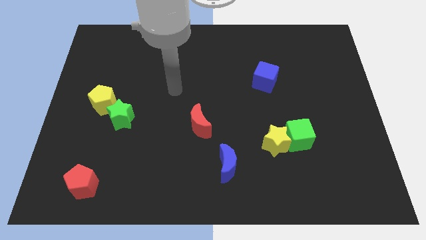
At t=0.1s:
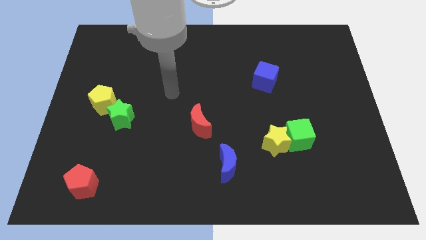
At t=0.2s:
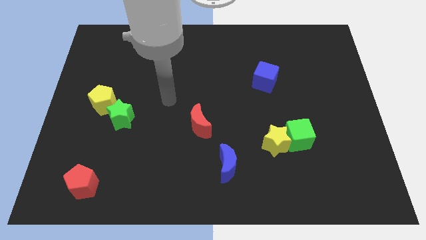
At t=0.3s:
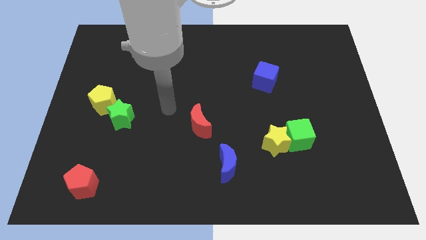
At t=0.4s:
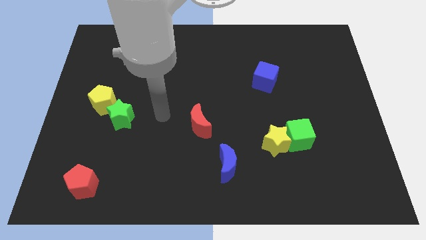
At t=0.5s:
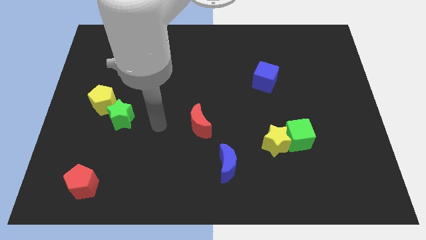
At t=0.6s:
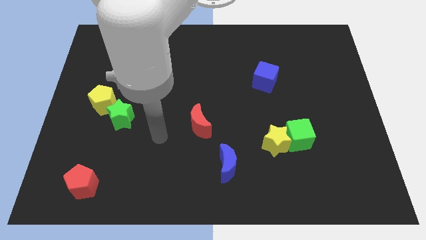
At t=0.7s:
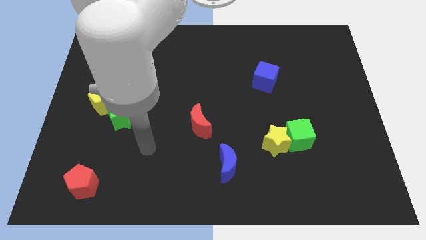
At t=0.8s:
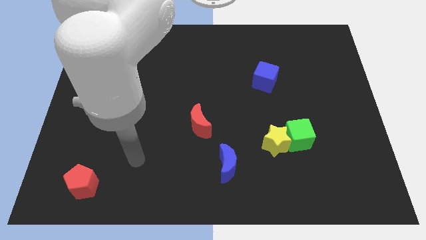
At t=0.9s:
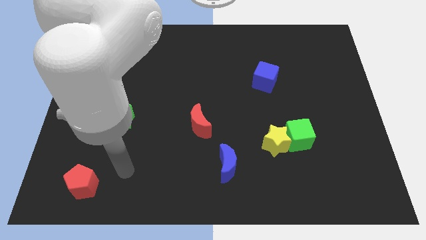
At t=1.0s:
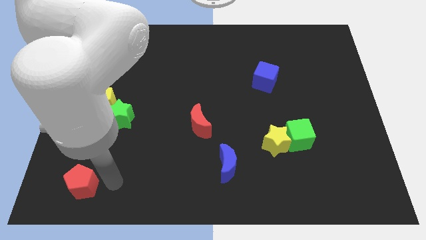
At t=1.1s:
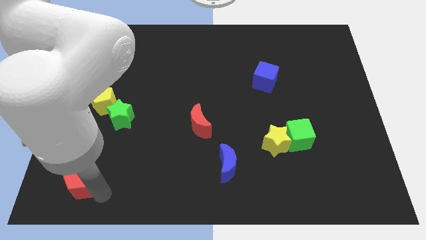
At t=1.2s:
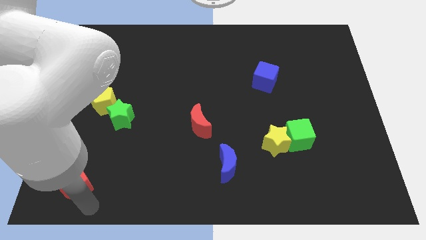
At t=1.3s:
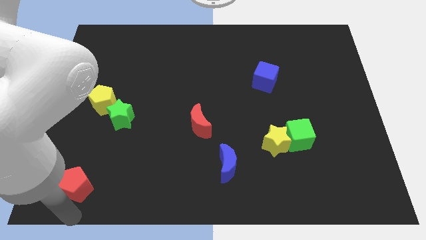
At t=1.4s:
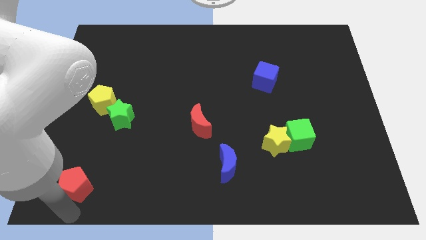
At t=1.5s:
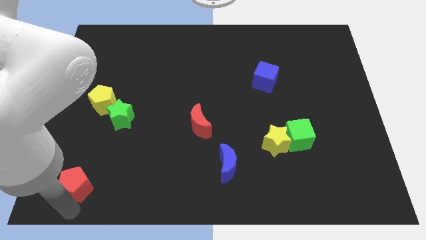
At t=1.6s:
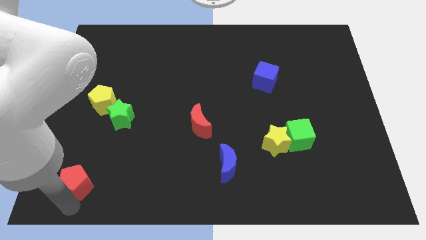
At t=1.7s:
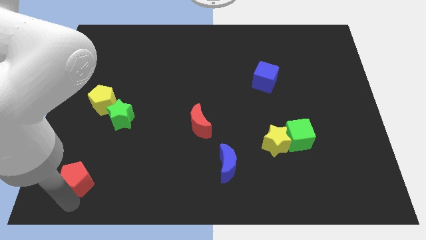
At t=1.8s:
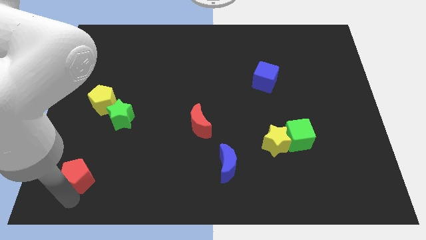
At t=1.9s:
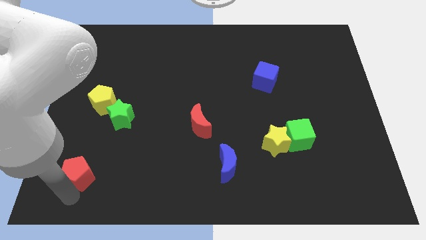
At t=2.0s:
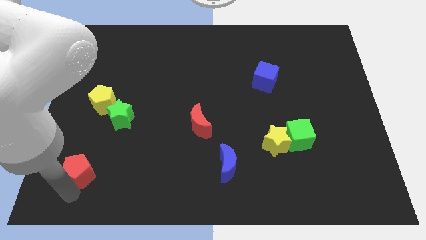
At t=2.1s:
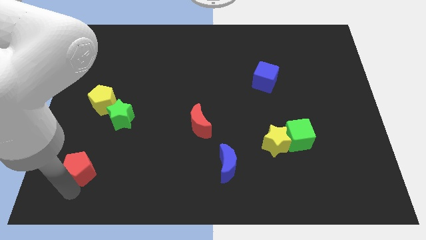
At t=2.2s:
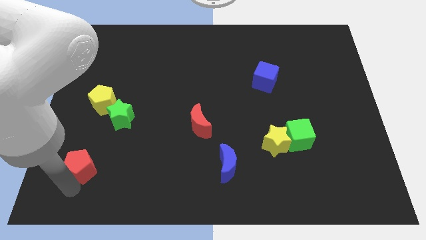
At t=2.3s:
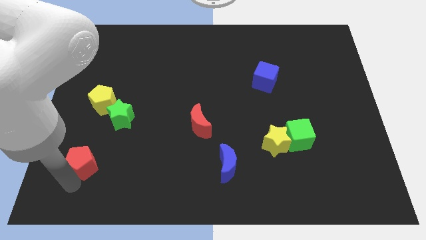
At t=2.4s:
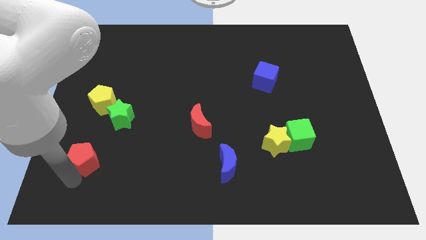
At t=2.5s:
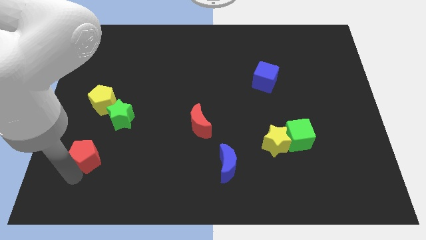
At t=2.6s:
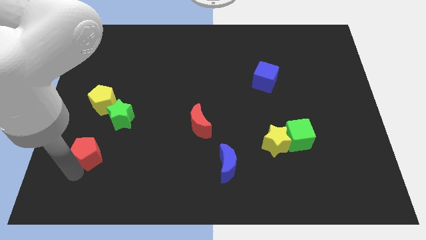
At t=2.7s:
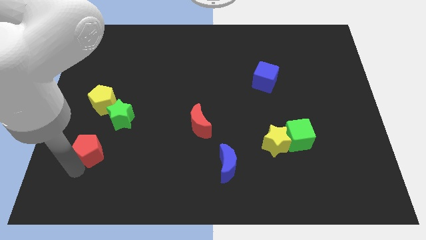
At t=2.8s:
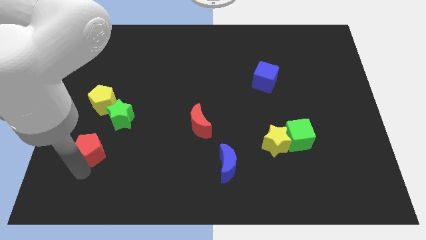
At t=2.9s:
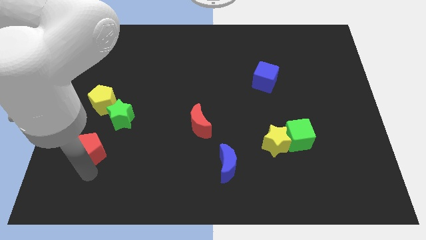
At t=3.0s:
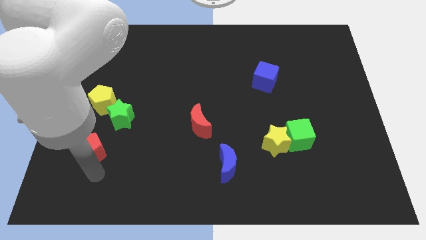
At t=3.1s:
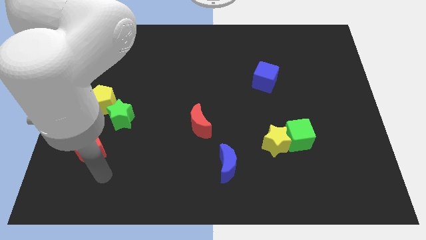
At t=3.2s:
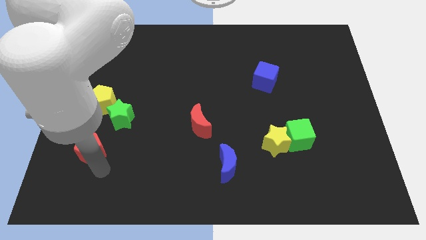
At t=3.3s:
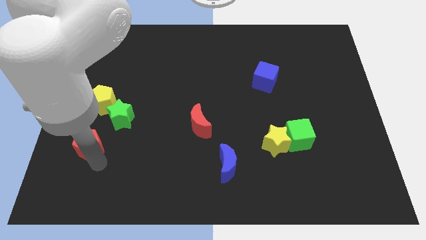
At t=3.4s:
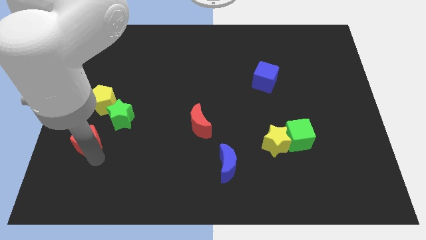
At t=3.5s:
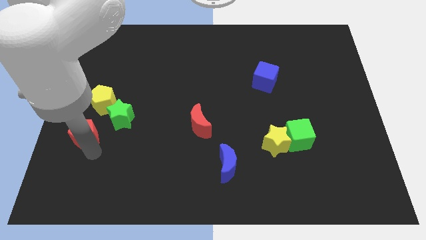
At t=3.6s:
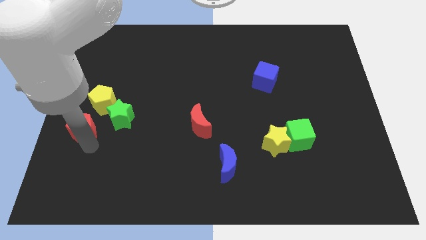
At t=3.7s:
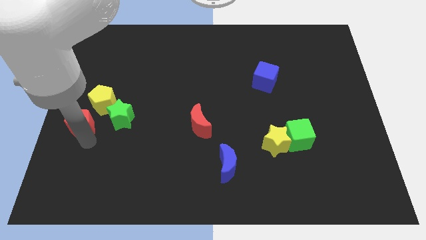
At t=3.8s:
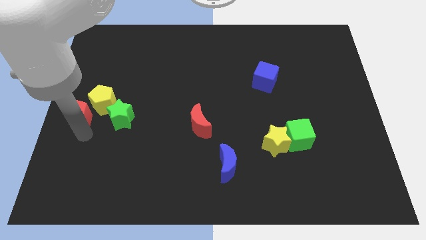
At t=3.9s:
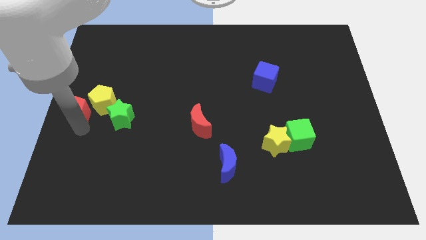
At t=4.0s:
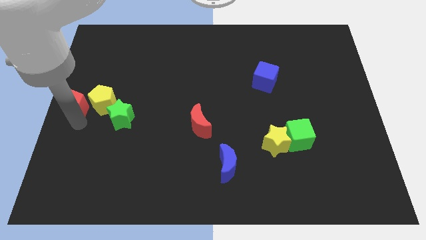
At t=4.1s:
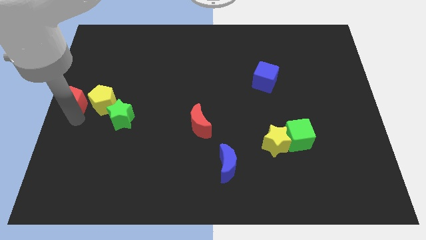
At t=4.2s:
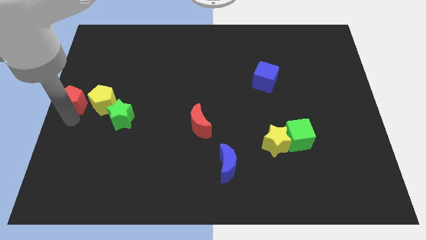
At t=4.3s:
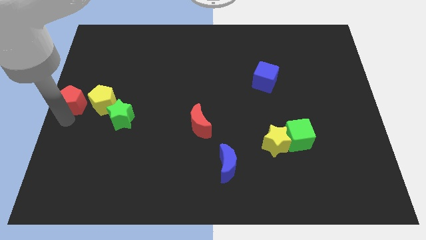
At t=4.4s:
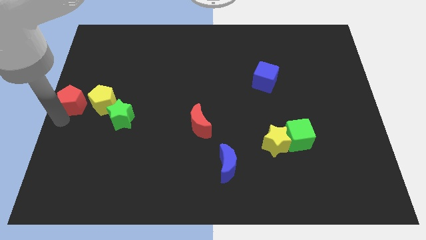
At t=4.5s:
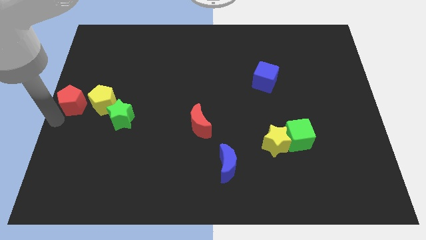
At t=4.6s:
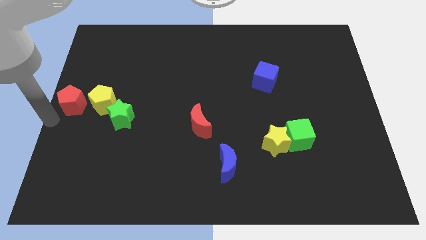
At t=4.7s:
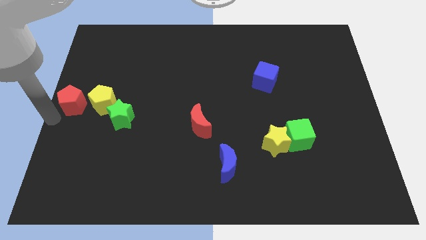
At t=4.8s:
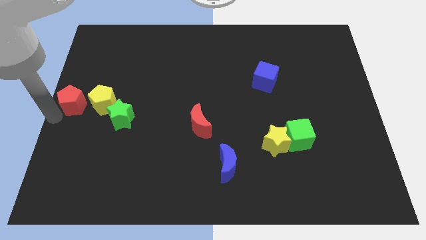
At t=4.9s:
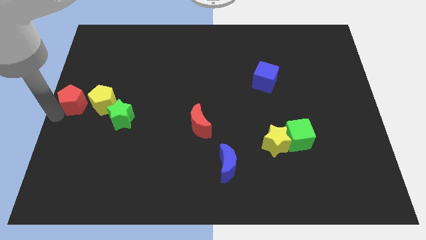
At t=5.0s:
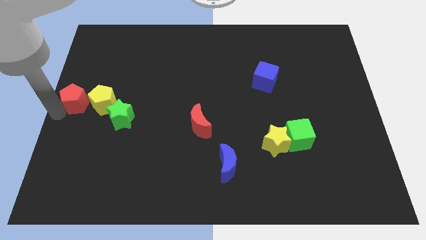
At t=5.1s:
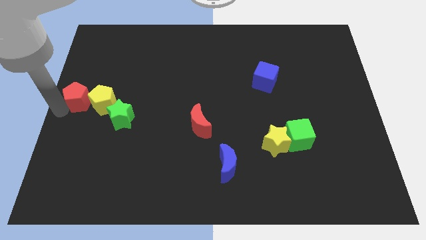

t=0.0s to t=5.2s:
push the red pentagon up

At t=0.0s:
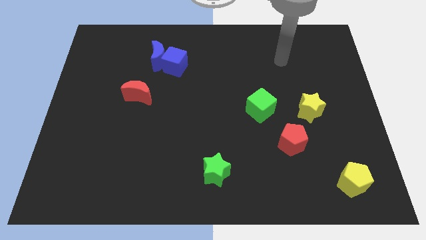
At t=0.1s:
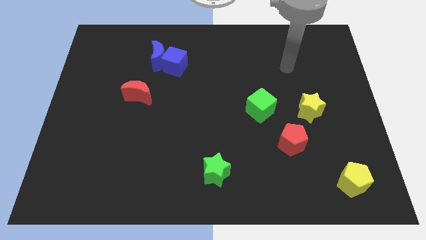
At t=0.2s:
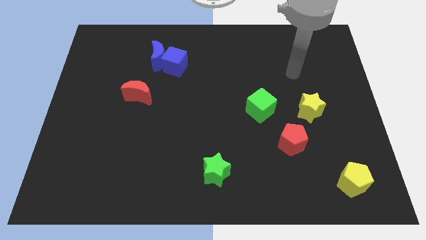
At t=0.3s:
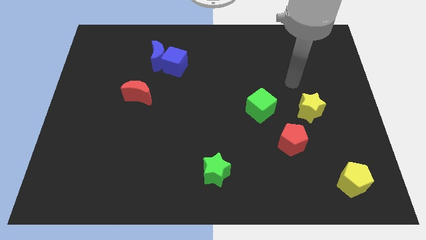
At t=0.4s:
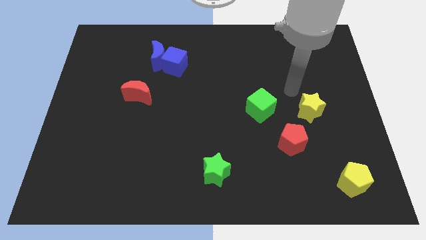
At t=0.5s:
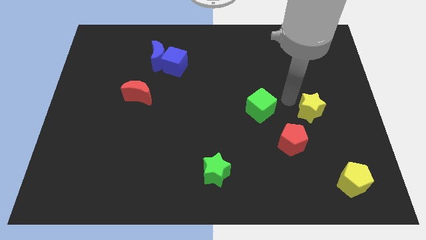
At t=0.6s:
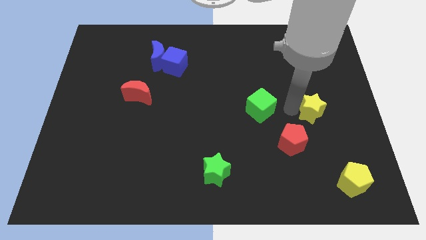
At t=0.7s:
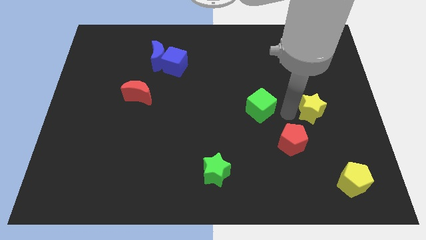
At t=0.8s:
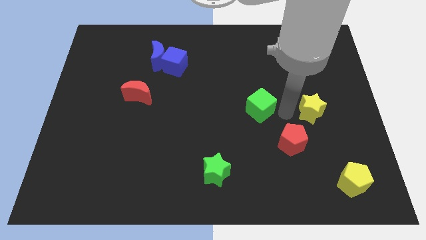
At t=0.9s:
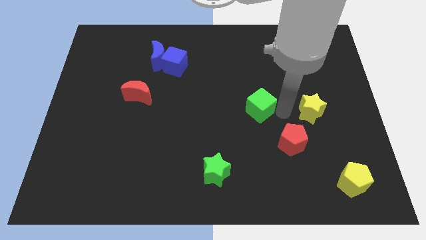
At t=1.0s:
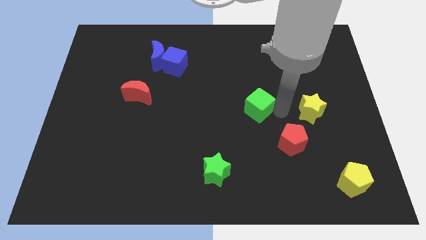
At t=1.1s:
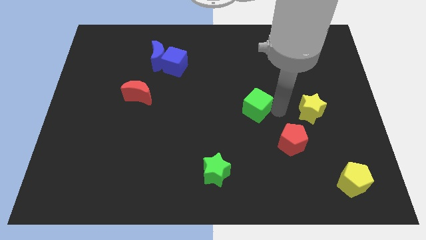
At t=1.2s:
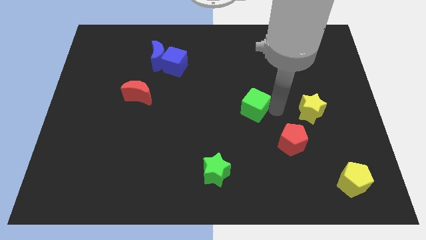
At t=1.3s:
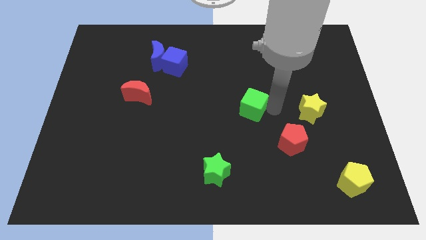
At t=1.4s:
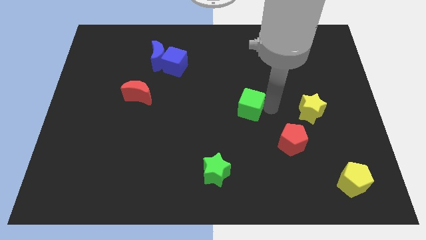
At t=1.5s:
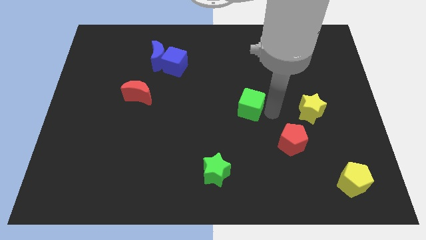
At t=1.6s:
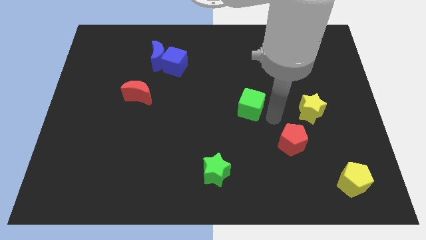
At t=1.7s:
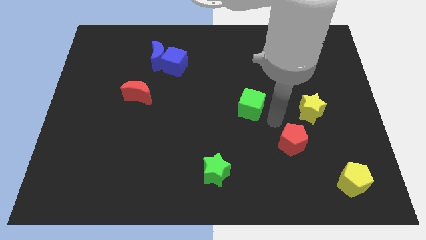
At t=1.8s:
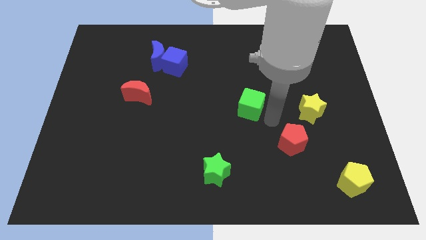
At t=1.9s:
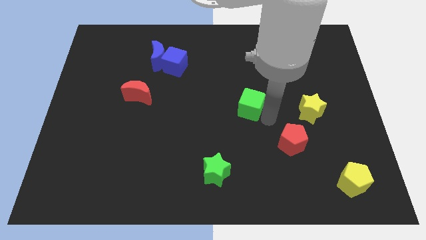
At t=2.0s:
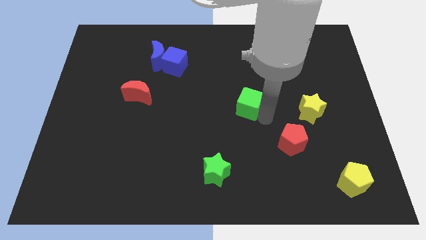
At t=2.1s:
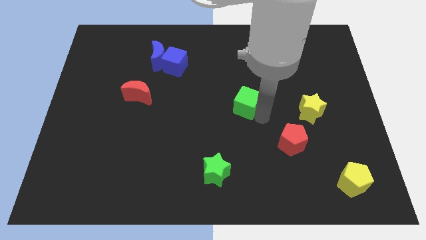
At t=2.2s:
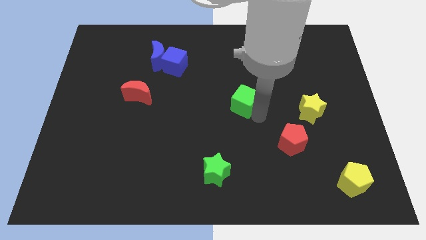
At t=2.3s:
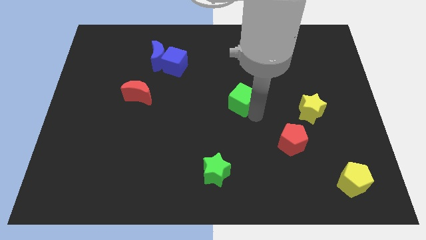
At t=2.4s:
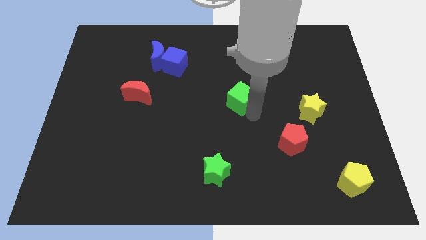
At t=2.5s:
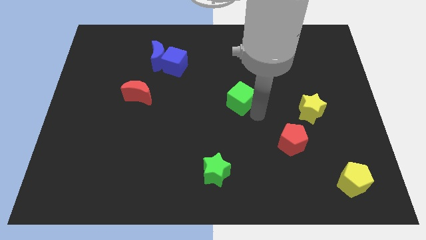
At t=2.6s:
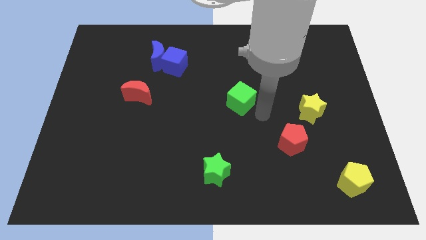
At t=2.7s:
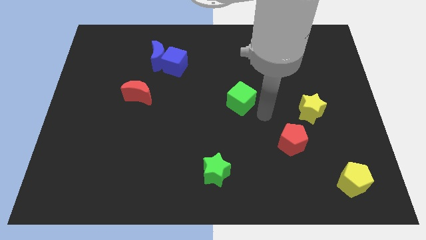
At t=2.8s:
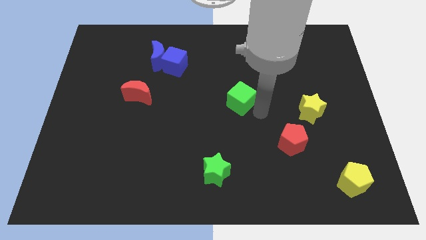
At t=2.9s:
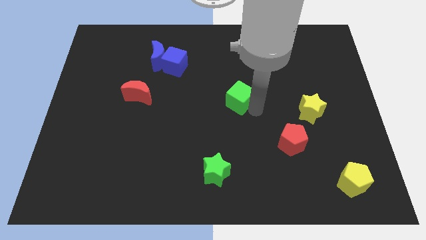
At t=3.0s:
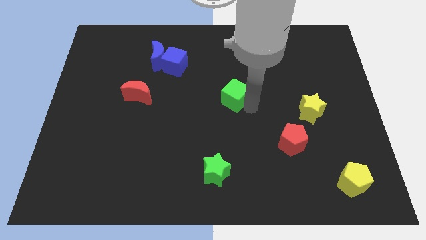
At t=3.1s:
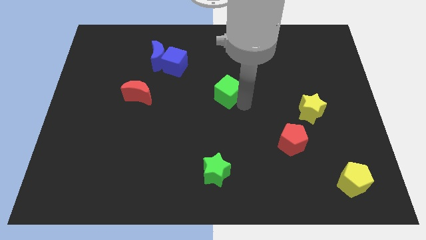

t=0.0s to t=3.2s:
slightly push the green cube upwards and left diagonally
